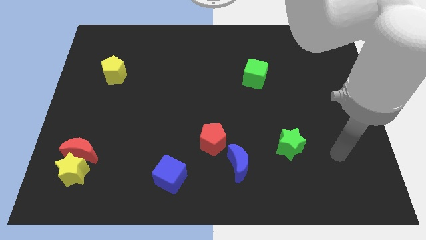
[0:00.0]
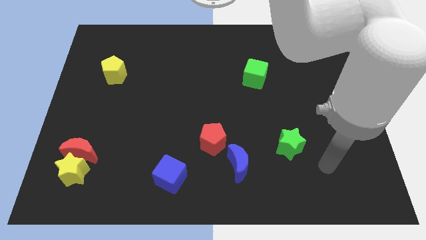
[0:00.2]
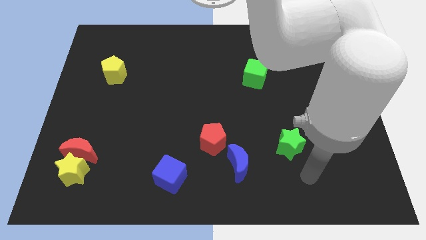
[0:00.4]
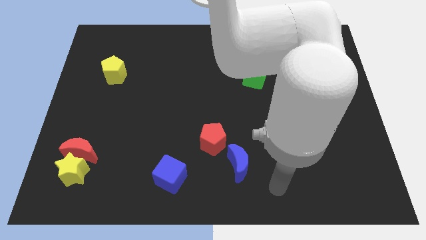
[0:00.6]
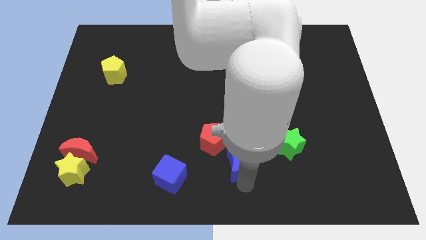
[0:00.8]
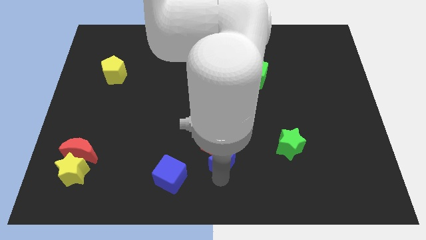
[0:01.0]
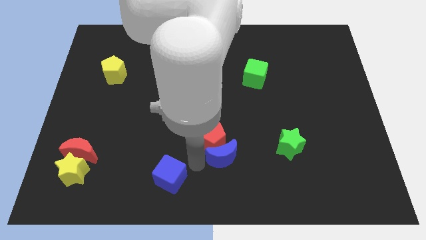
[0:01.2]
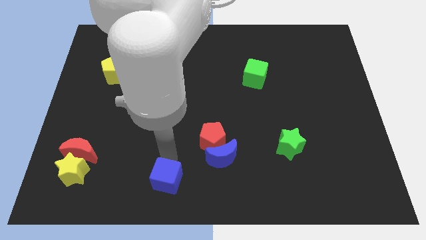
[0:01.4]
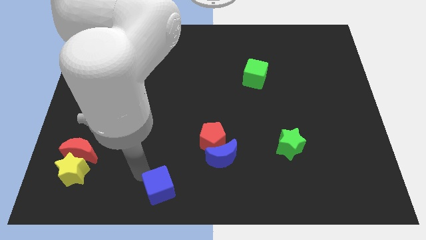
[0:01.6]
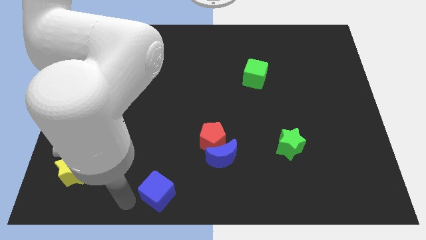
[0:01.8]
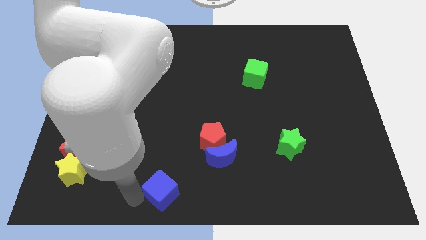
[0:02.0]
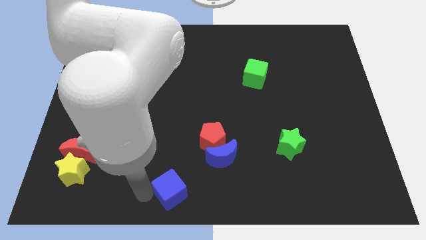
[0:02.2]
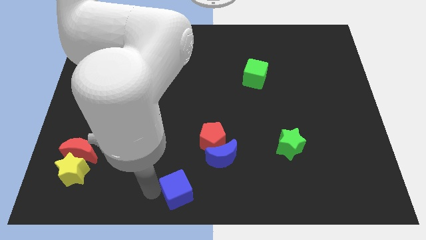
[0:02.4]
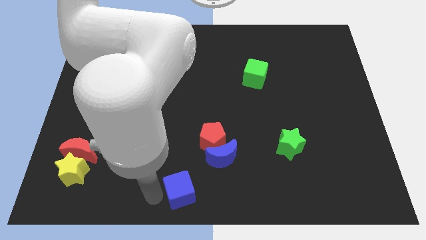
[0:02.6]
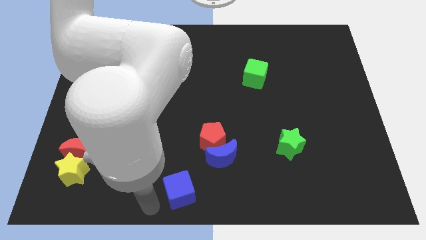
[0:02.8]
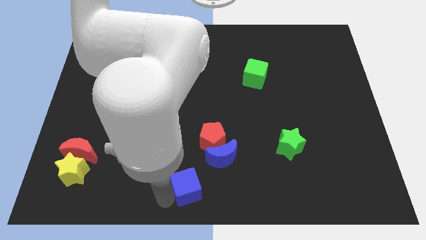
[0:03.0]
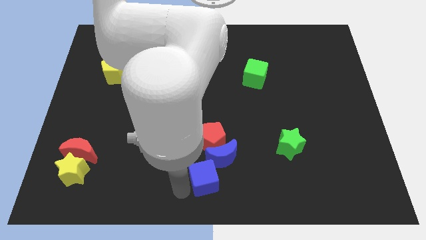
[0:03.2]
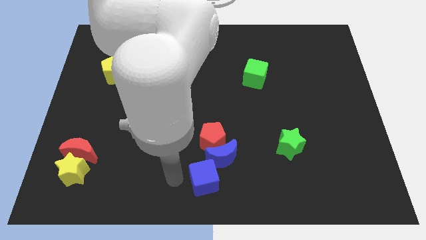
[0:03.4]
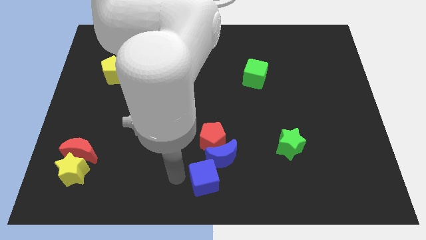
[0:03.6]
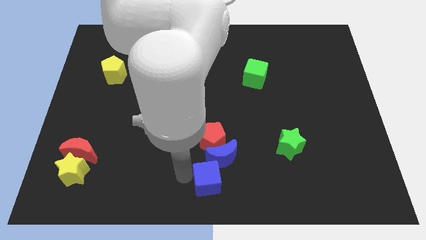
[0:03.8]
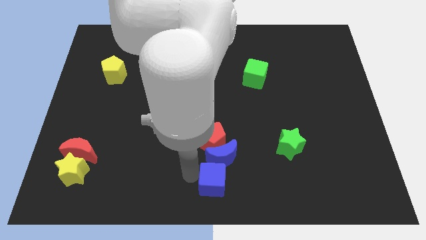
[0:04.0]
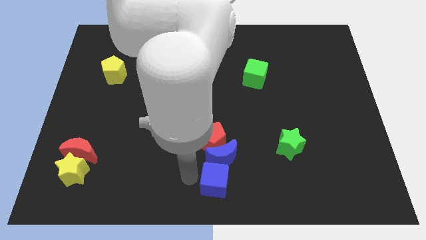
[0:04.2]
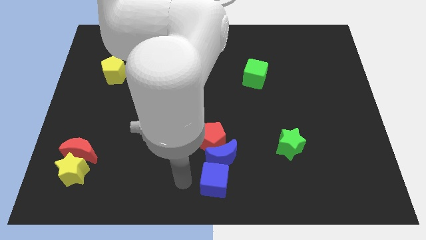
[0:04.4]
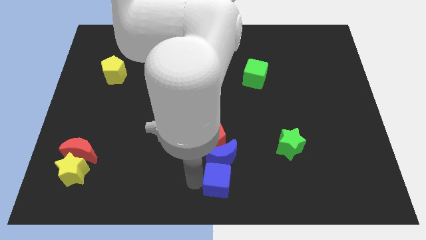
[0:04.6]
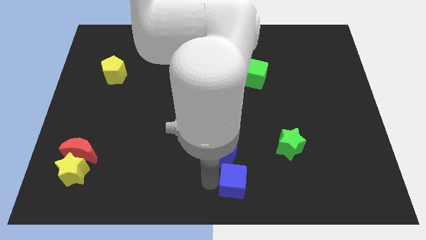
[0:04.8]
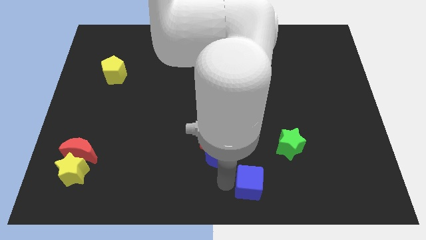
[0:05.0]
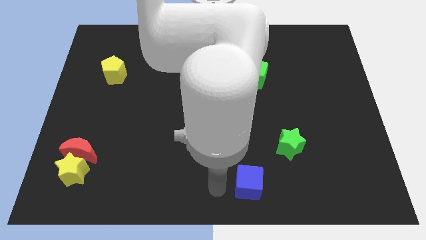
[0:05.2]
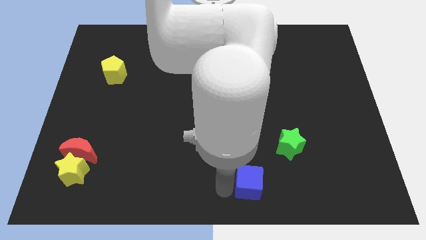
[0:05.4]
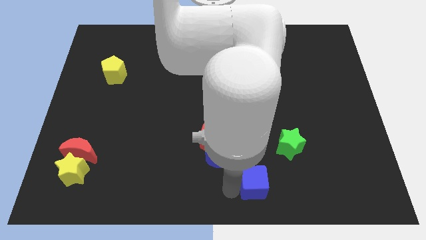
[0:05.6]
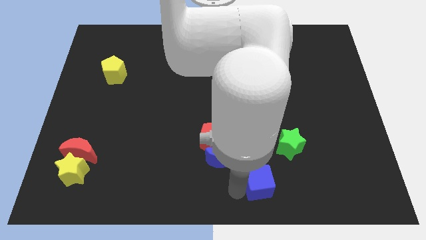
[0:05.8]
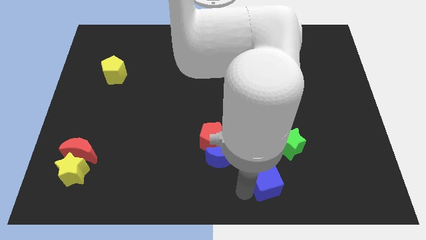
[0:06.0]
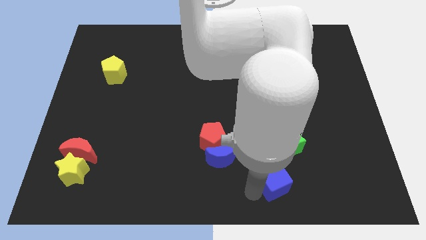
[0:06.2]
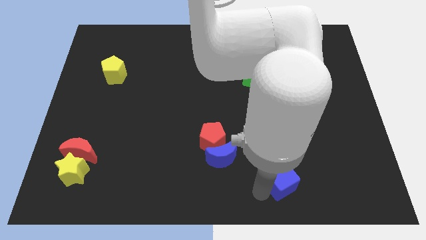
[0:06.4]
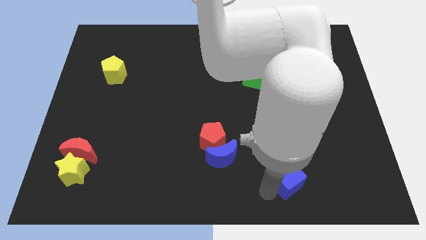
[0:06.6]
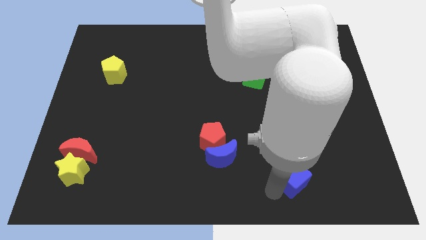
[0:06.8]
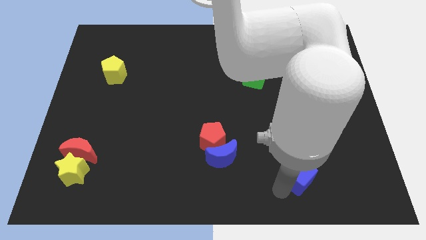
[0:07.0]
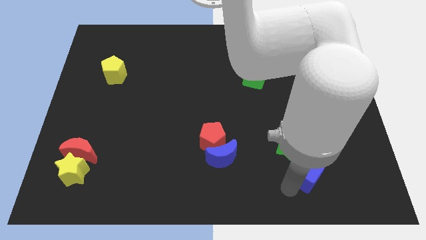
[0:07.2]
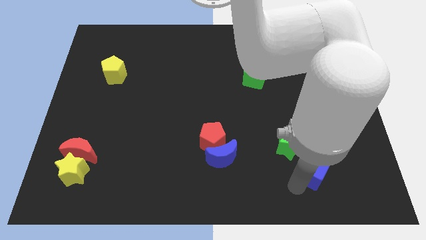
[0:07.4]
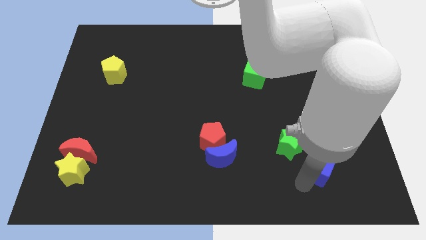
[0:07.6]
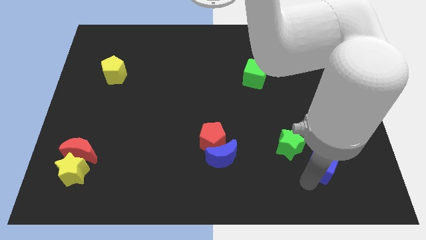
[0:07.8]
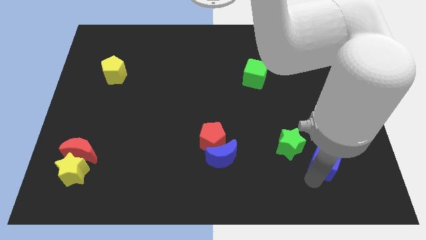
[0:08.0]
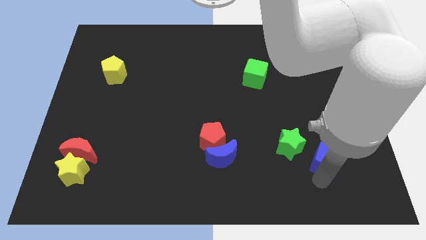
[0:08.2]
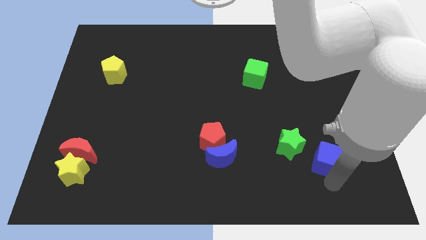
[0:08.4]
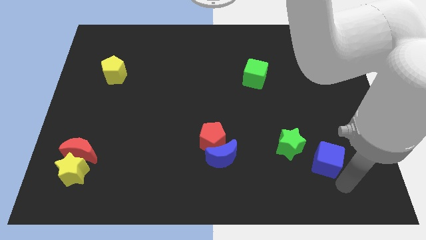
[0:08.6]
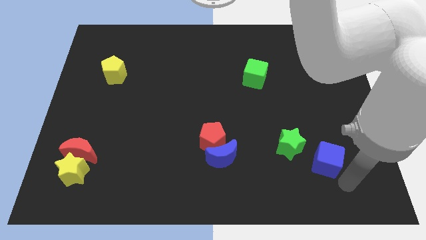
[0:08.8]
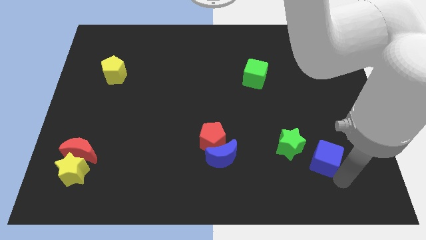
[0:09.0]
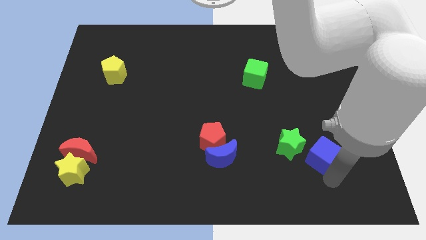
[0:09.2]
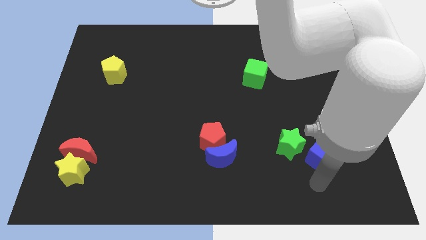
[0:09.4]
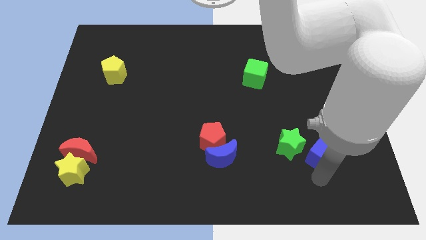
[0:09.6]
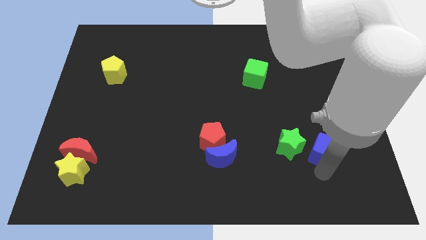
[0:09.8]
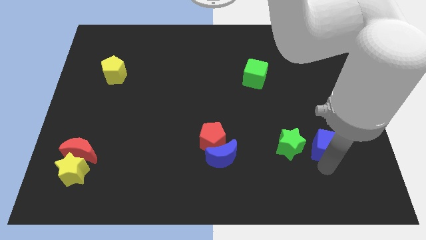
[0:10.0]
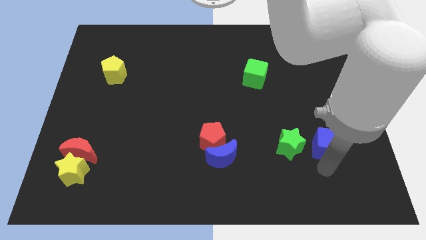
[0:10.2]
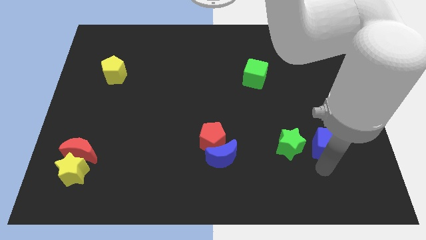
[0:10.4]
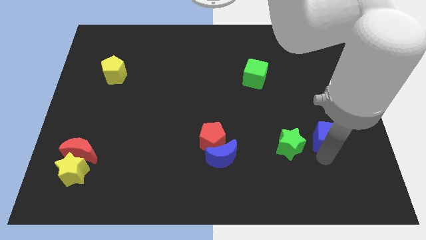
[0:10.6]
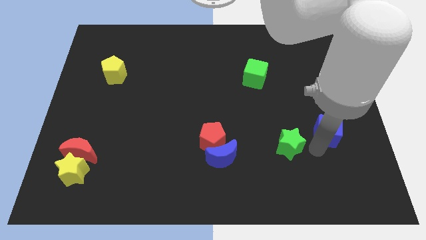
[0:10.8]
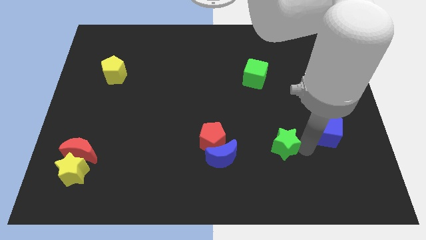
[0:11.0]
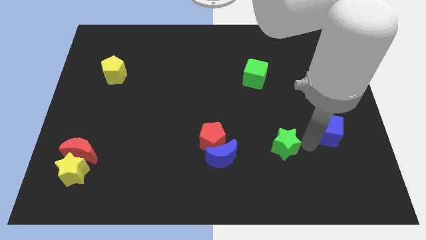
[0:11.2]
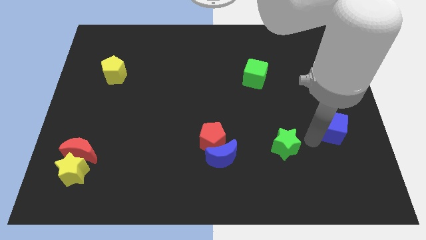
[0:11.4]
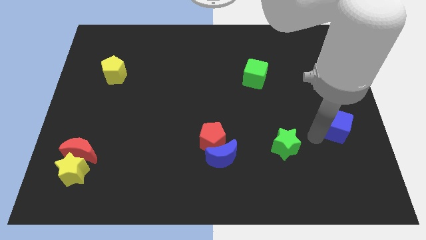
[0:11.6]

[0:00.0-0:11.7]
put the blue cube to the right side of the board

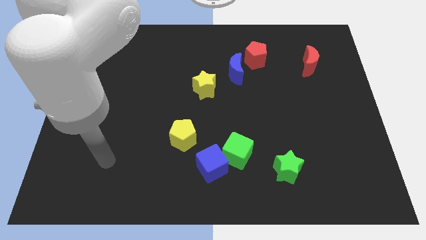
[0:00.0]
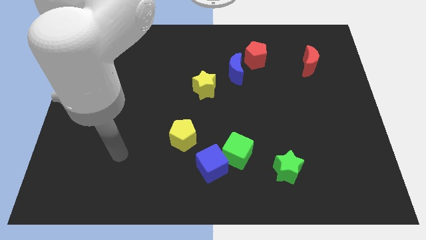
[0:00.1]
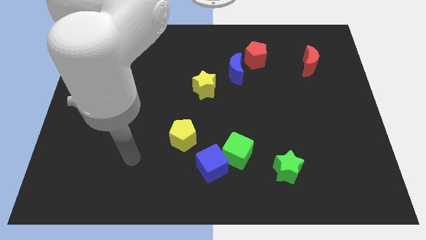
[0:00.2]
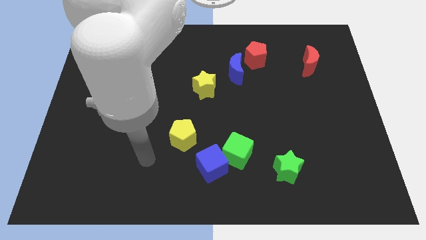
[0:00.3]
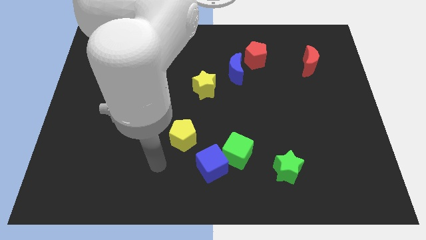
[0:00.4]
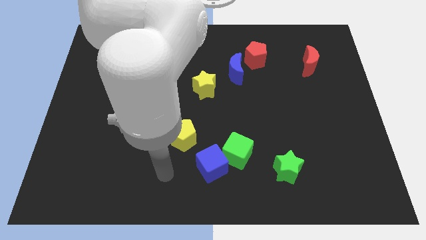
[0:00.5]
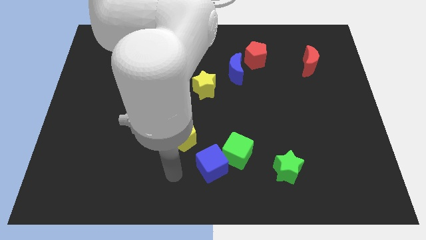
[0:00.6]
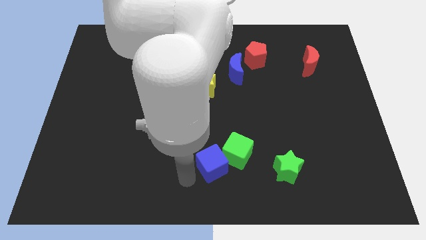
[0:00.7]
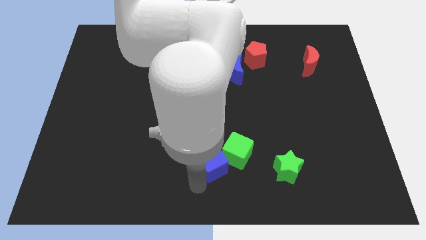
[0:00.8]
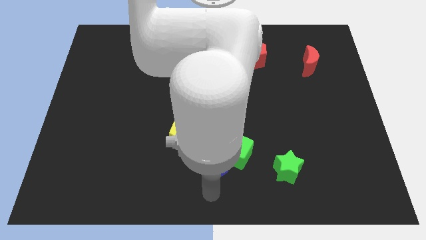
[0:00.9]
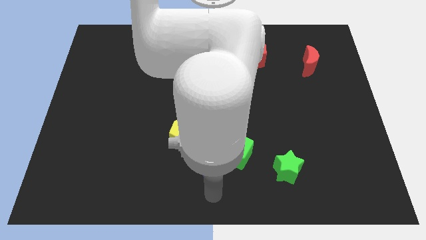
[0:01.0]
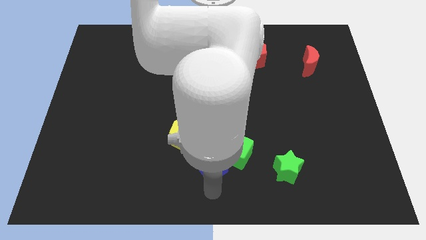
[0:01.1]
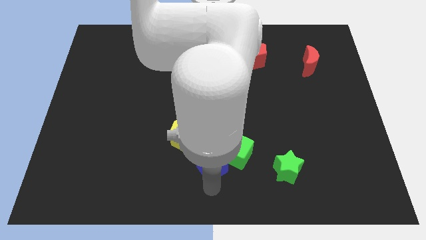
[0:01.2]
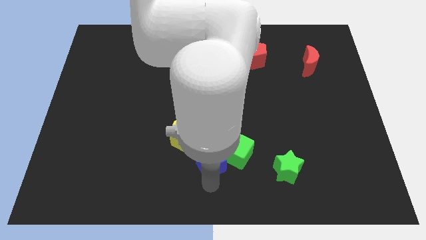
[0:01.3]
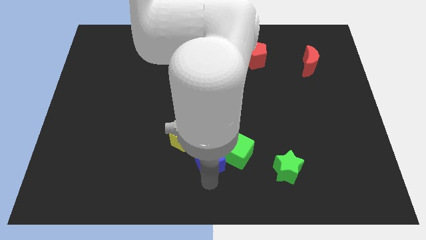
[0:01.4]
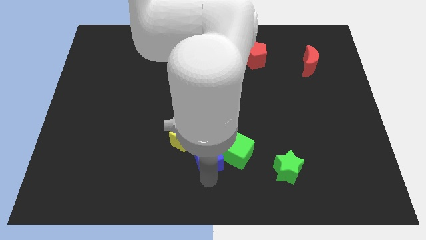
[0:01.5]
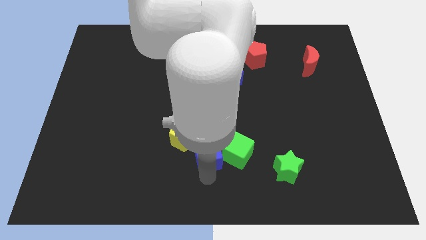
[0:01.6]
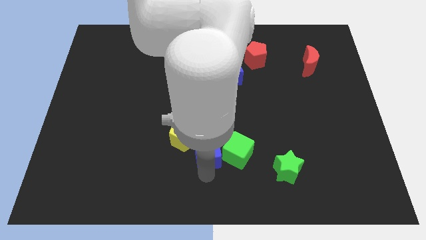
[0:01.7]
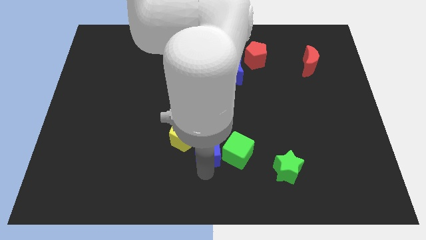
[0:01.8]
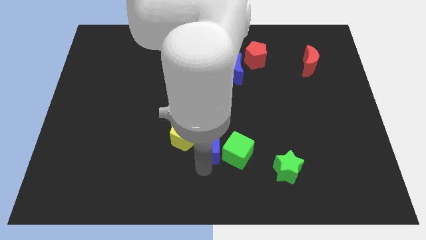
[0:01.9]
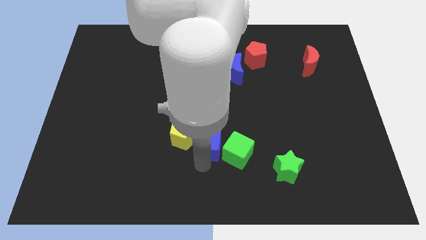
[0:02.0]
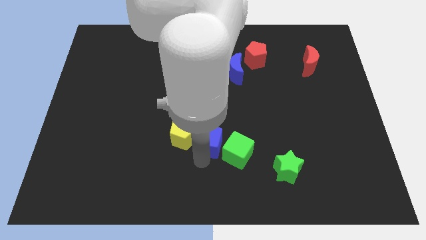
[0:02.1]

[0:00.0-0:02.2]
push the blue cube to the middle
